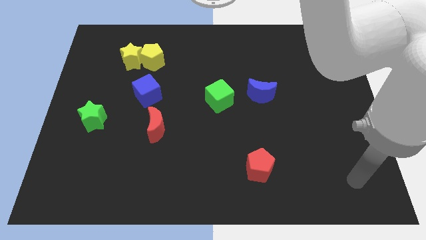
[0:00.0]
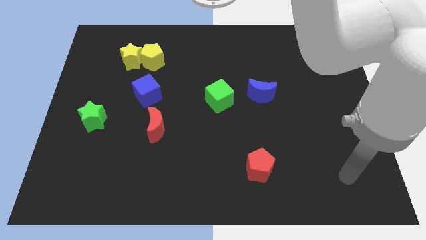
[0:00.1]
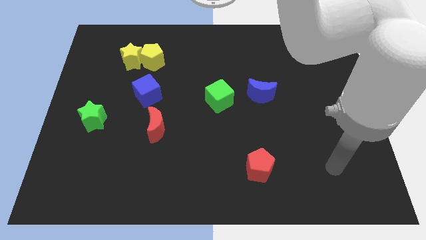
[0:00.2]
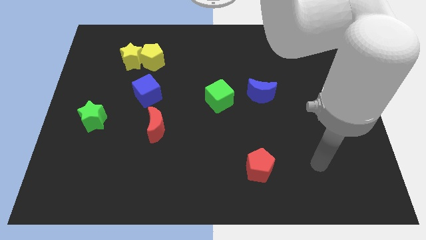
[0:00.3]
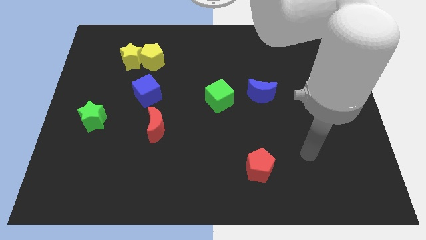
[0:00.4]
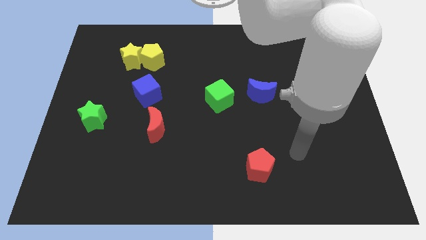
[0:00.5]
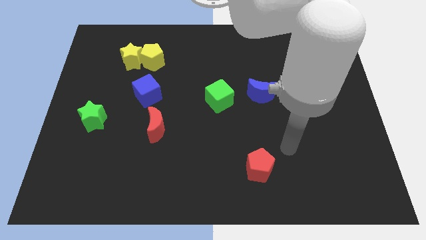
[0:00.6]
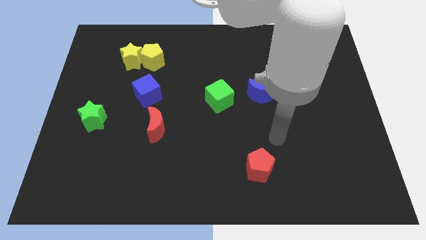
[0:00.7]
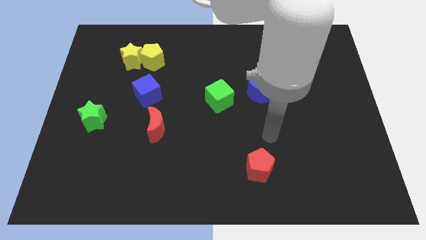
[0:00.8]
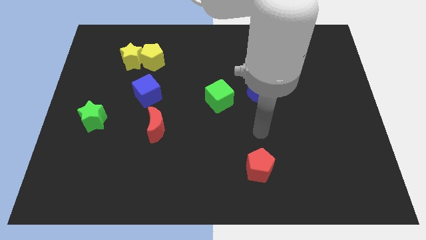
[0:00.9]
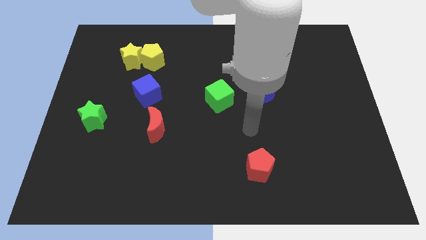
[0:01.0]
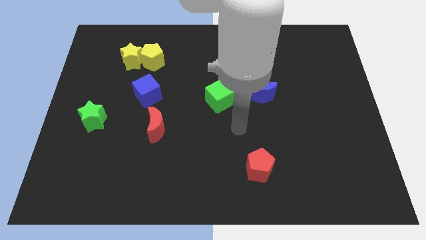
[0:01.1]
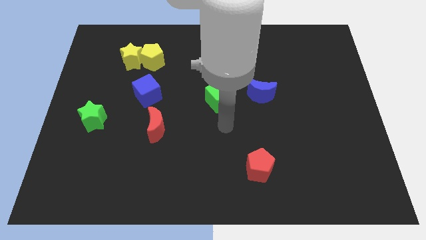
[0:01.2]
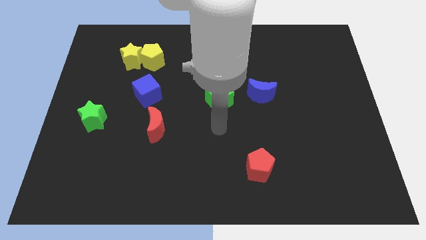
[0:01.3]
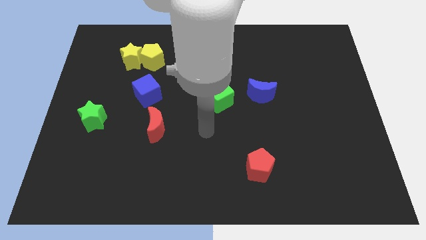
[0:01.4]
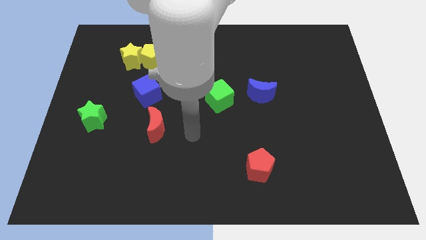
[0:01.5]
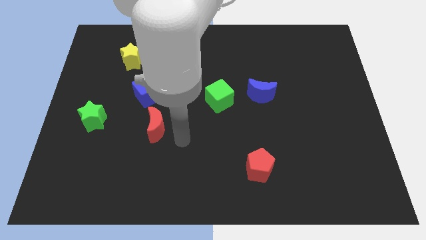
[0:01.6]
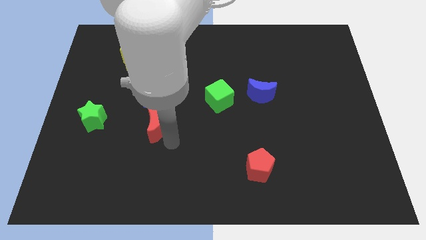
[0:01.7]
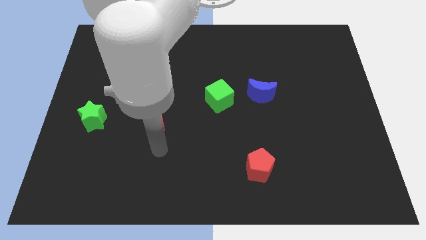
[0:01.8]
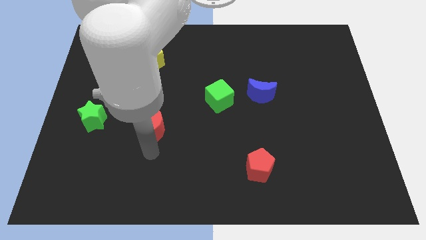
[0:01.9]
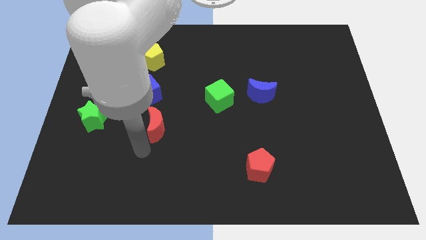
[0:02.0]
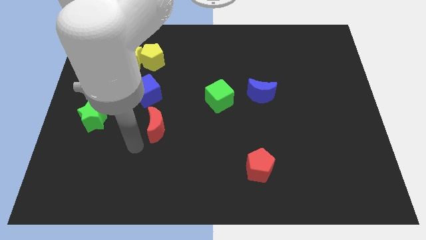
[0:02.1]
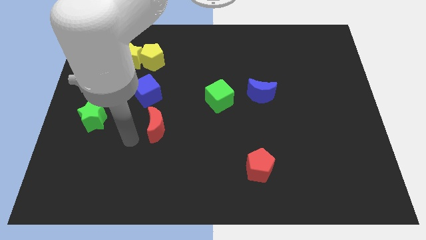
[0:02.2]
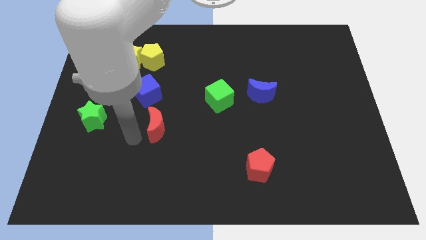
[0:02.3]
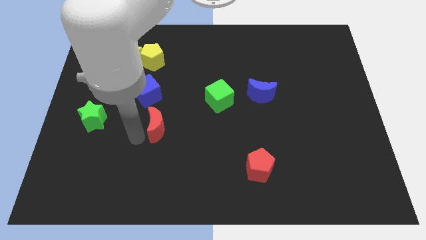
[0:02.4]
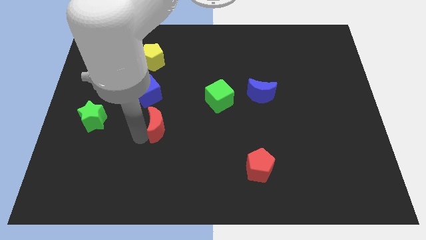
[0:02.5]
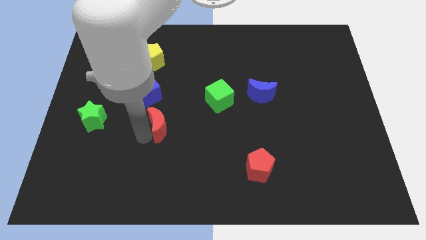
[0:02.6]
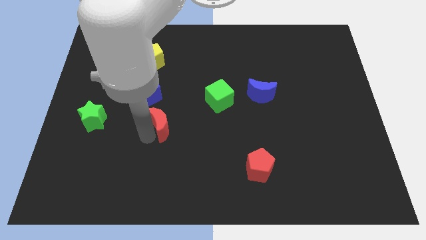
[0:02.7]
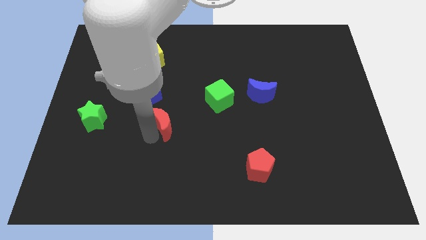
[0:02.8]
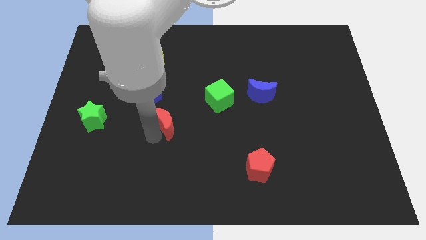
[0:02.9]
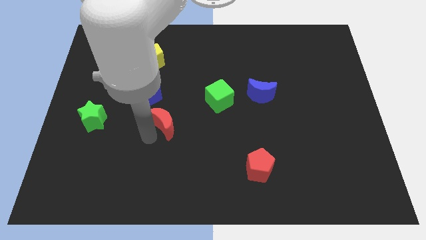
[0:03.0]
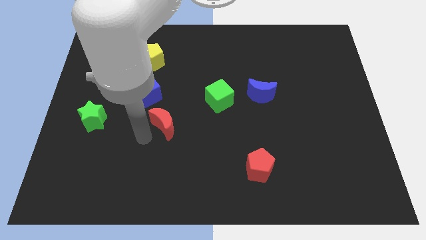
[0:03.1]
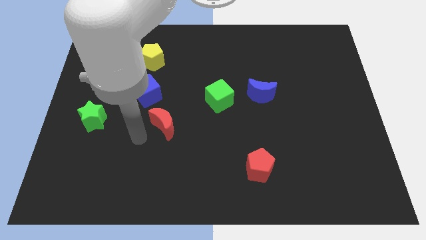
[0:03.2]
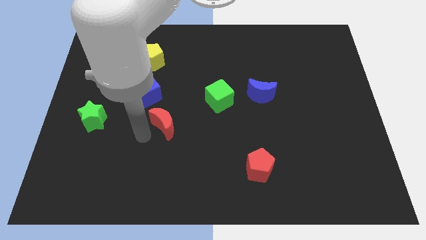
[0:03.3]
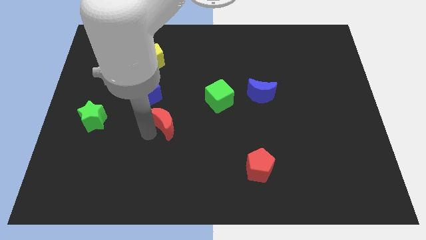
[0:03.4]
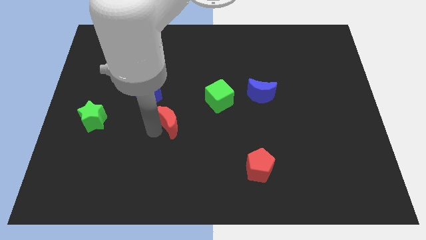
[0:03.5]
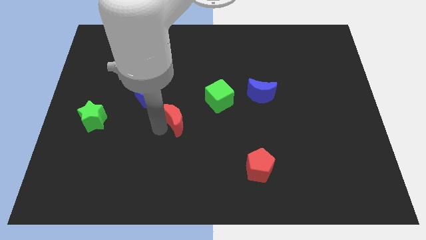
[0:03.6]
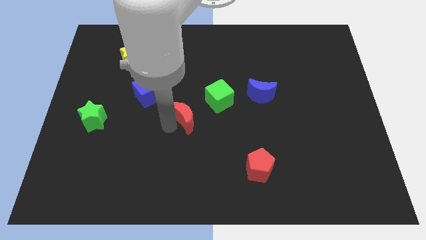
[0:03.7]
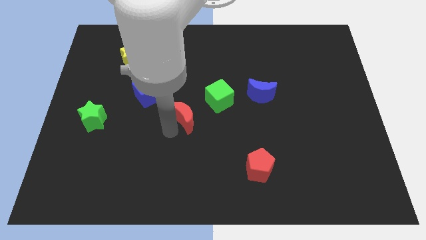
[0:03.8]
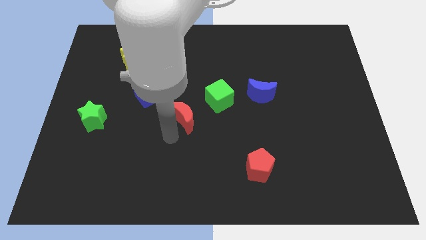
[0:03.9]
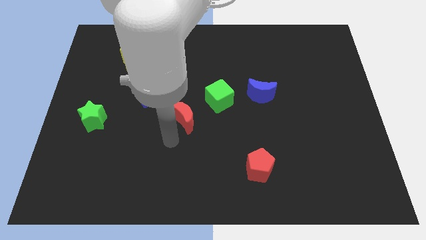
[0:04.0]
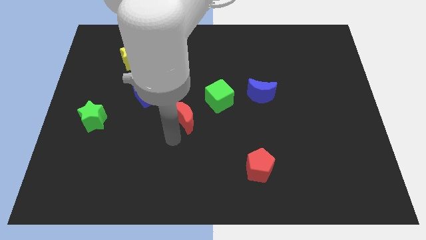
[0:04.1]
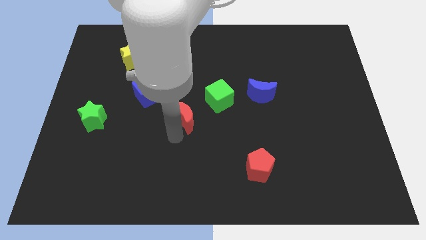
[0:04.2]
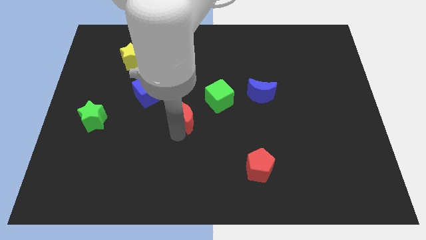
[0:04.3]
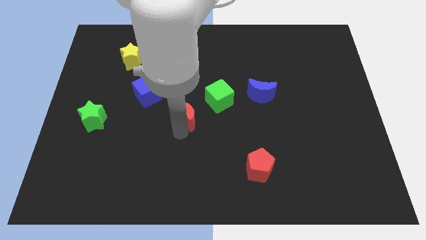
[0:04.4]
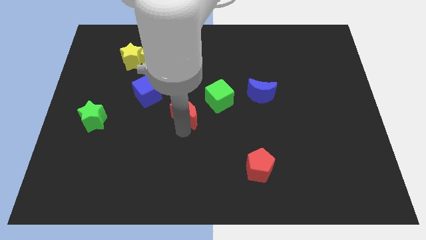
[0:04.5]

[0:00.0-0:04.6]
push the red moon up and right diagonally a little

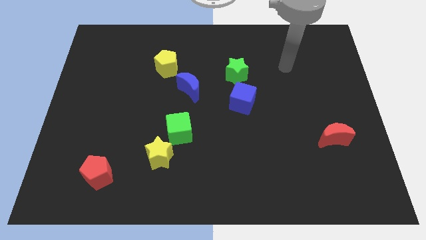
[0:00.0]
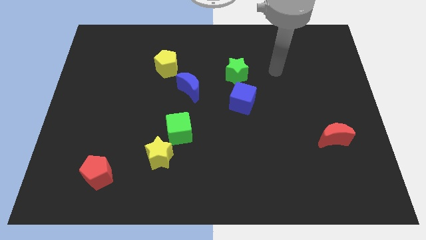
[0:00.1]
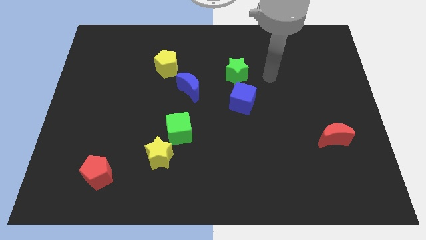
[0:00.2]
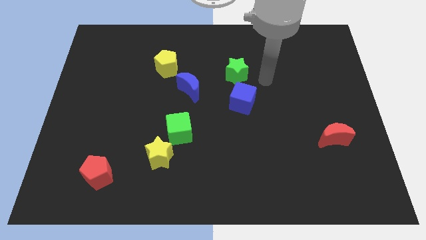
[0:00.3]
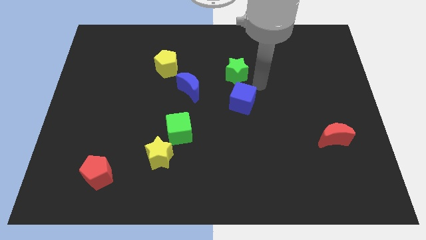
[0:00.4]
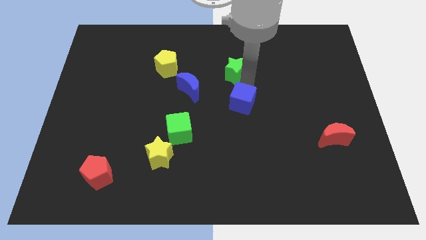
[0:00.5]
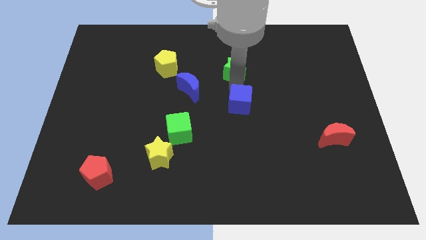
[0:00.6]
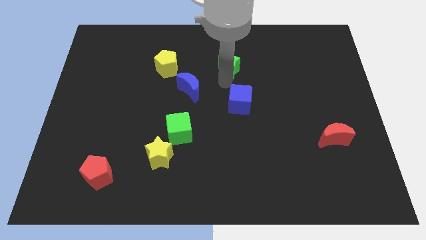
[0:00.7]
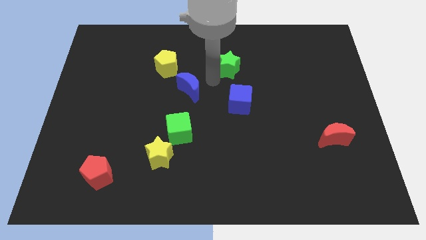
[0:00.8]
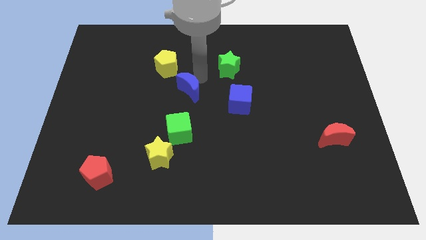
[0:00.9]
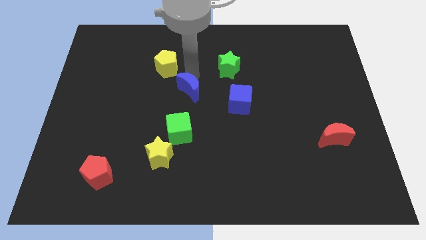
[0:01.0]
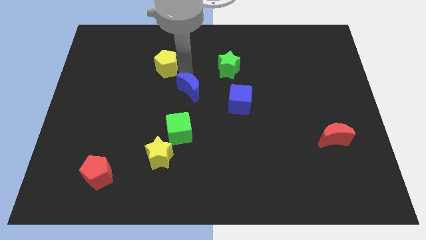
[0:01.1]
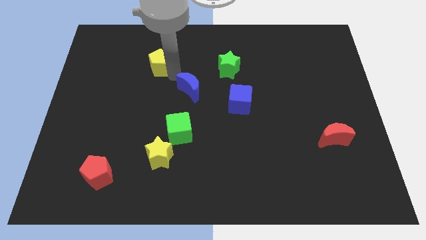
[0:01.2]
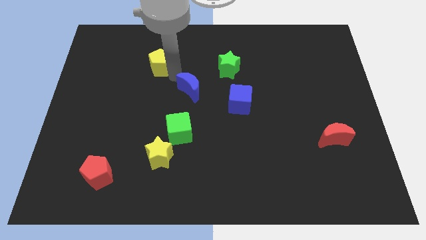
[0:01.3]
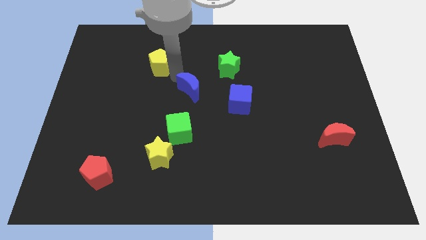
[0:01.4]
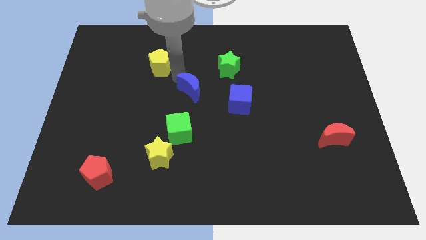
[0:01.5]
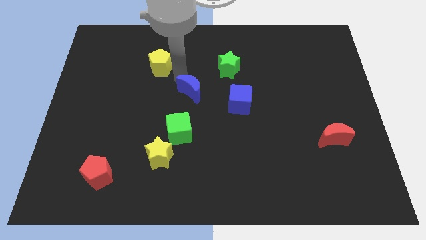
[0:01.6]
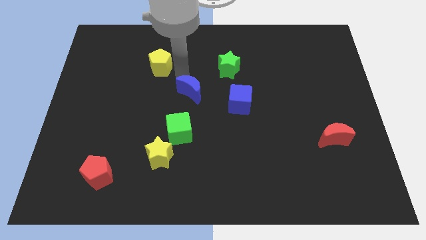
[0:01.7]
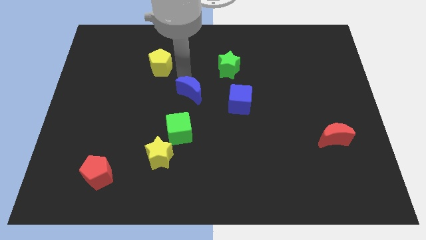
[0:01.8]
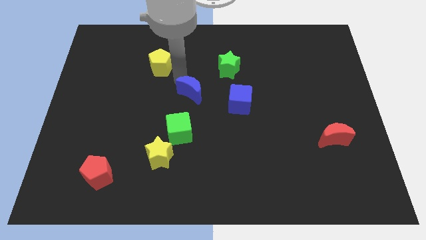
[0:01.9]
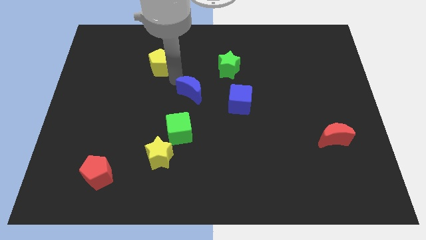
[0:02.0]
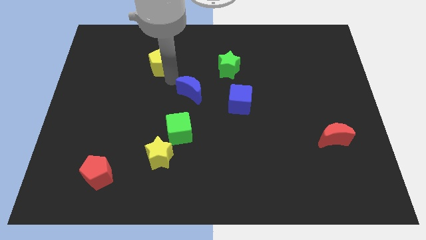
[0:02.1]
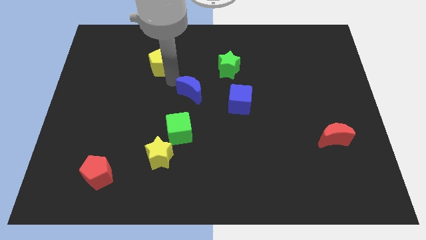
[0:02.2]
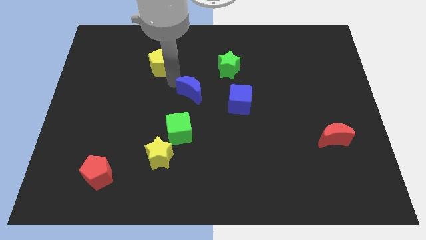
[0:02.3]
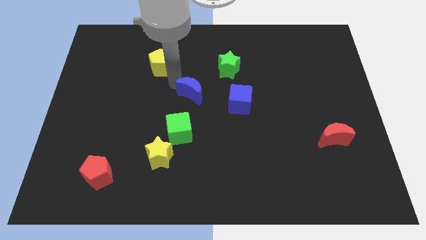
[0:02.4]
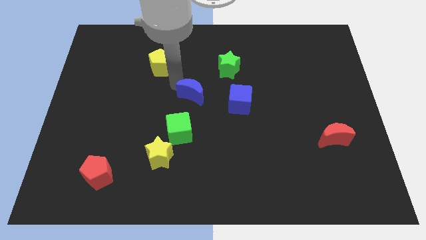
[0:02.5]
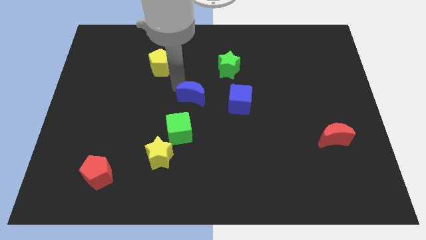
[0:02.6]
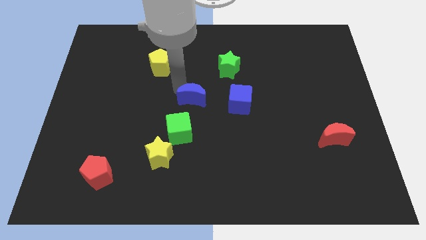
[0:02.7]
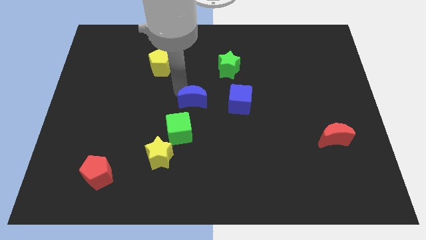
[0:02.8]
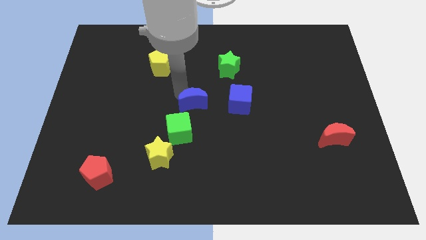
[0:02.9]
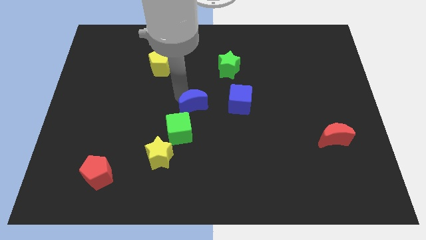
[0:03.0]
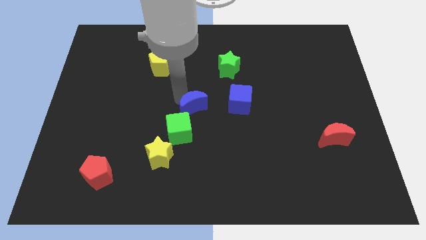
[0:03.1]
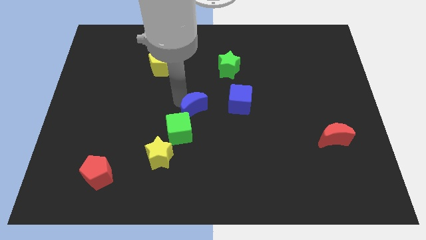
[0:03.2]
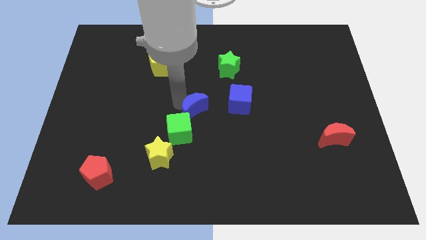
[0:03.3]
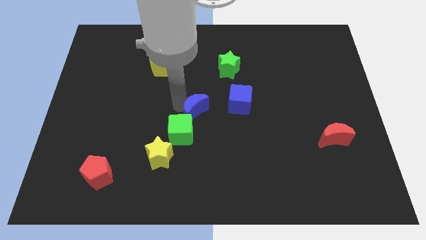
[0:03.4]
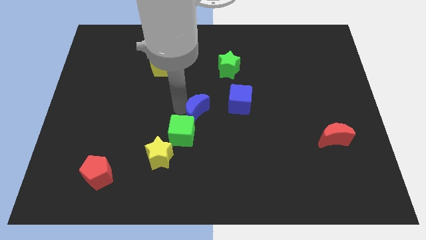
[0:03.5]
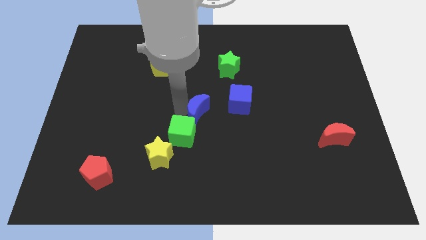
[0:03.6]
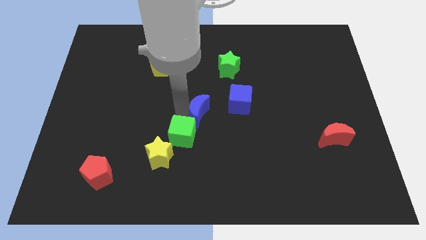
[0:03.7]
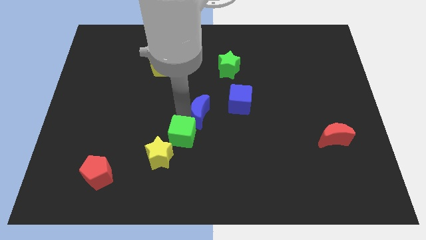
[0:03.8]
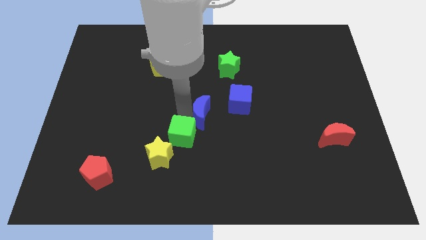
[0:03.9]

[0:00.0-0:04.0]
move the blue moon down and to the right diagonally a little bit
